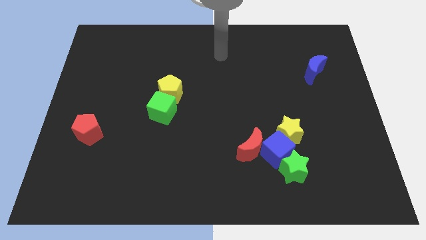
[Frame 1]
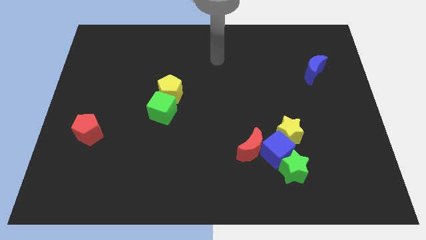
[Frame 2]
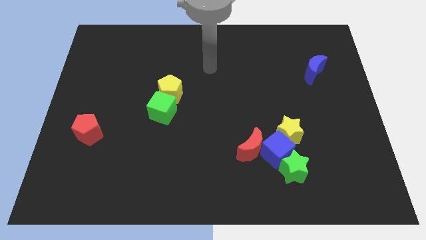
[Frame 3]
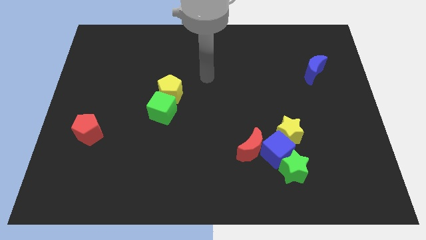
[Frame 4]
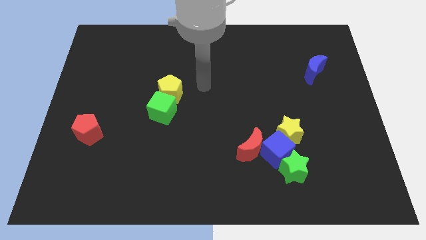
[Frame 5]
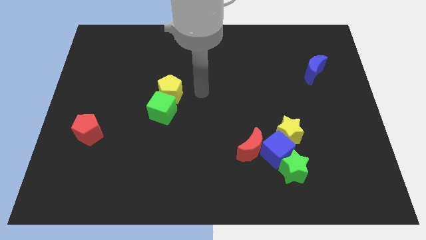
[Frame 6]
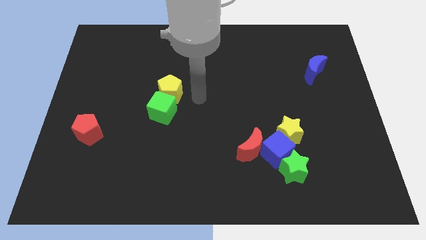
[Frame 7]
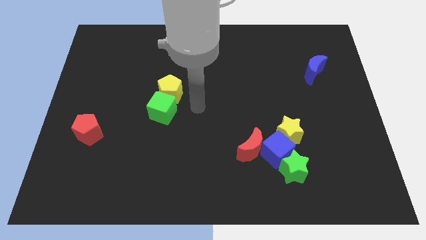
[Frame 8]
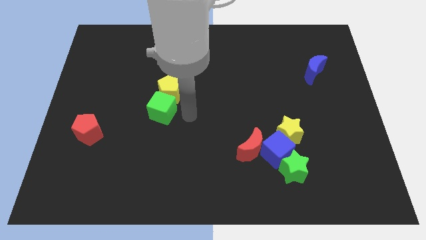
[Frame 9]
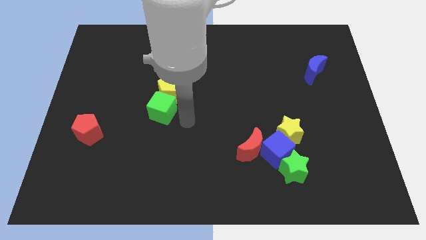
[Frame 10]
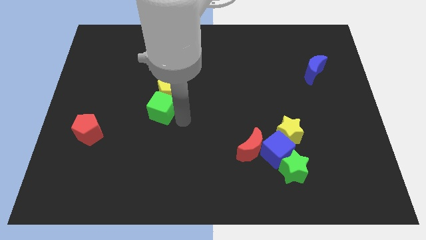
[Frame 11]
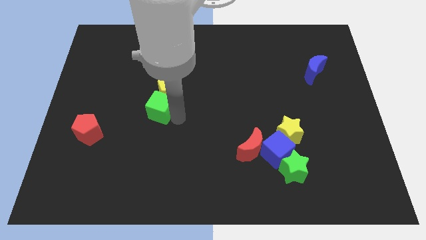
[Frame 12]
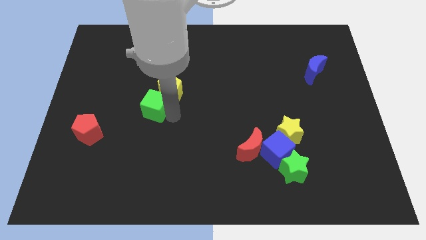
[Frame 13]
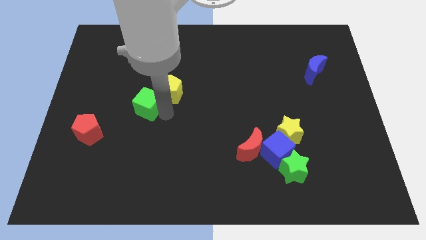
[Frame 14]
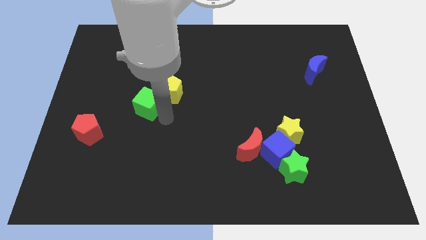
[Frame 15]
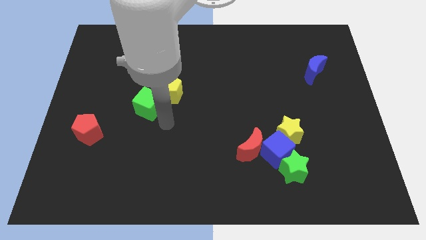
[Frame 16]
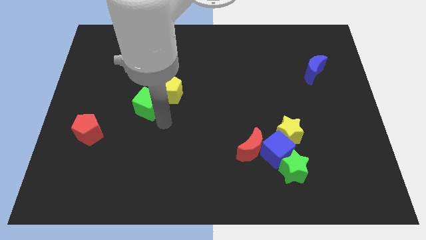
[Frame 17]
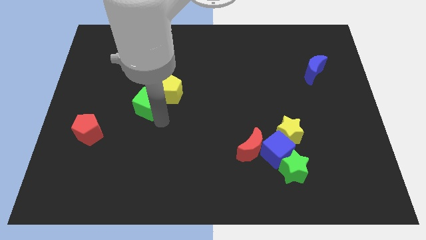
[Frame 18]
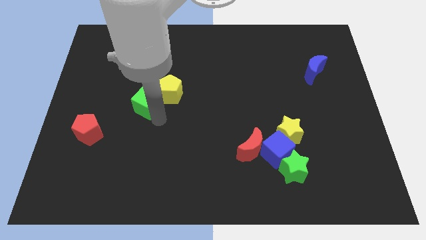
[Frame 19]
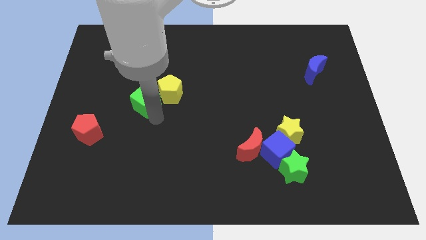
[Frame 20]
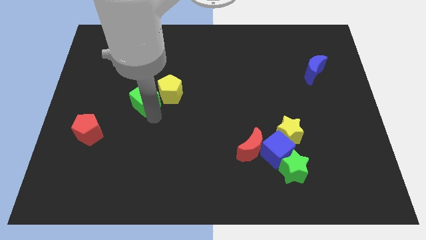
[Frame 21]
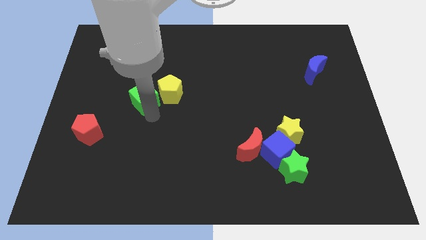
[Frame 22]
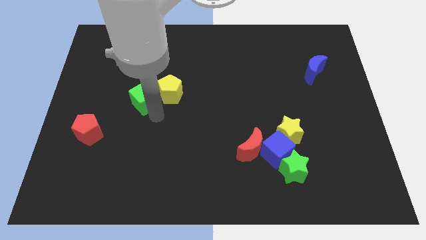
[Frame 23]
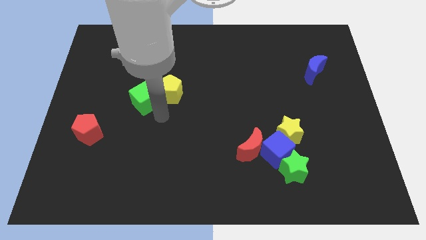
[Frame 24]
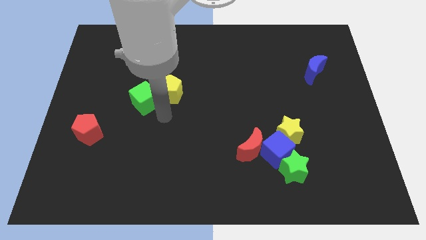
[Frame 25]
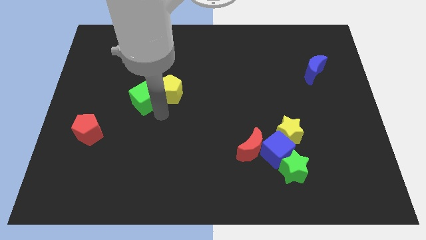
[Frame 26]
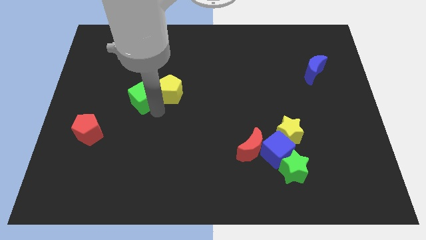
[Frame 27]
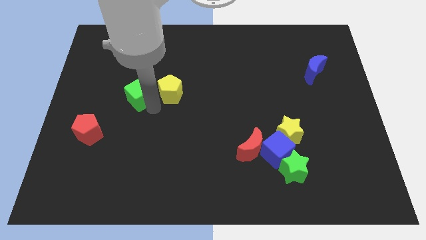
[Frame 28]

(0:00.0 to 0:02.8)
push the green cube diagonally upwards and to the left a little

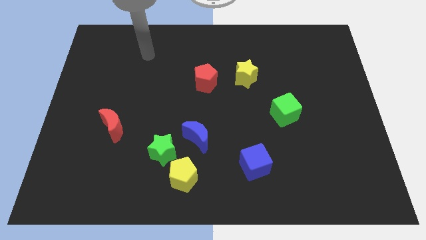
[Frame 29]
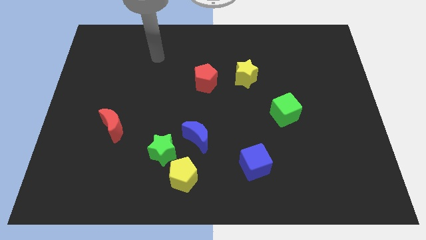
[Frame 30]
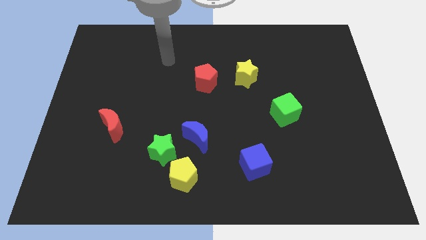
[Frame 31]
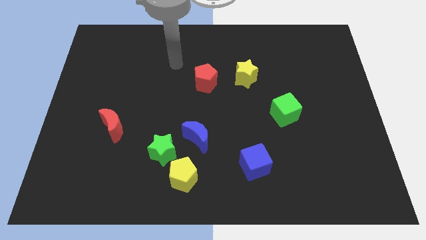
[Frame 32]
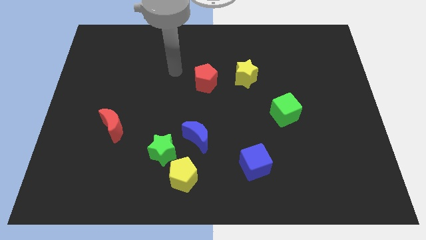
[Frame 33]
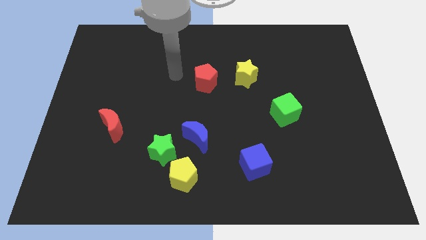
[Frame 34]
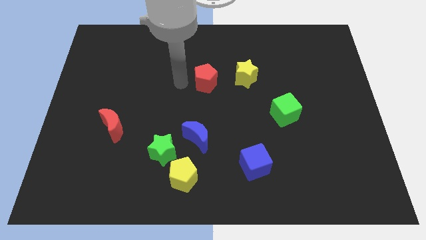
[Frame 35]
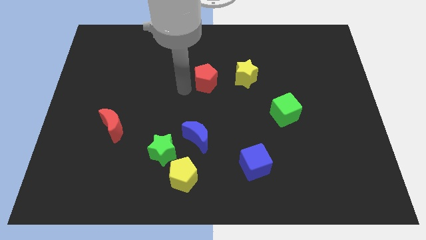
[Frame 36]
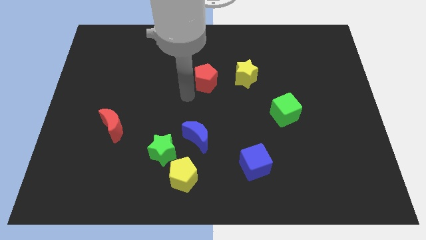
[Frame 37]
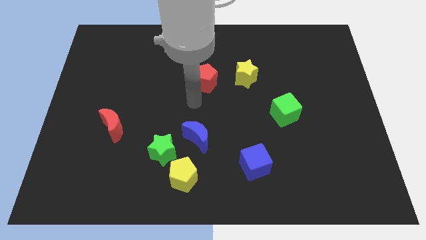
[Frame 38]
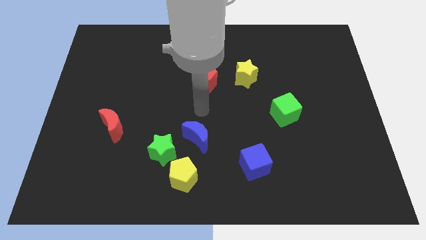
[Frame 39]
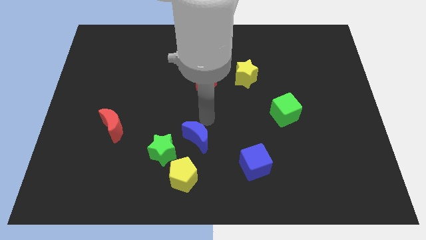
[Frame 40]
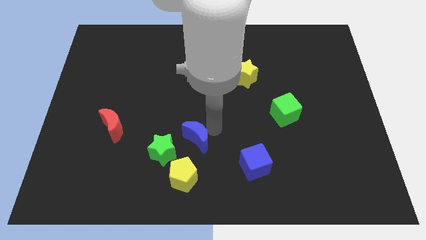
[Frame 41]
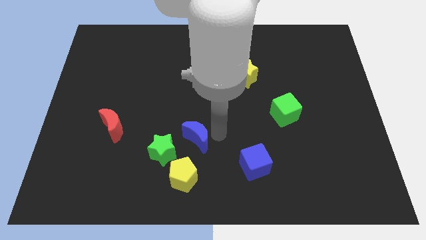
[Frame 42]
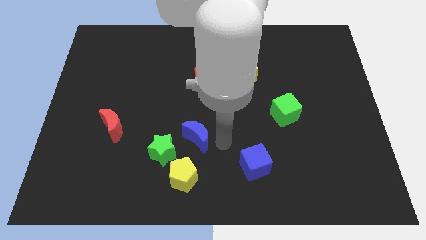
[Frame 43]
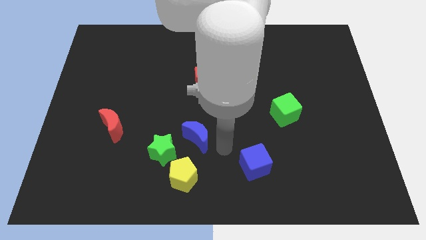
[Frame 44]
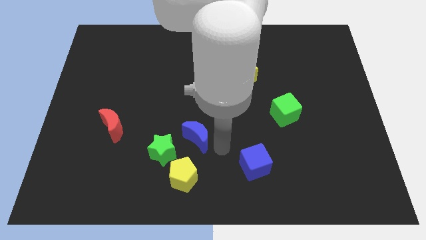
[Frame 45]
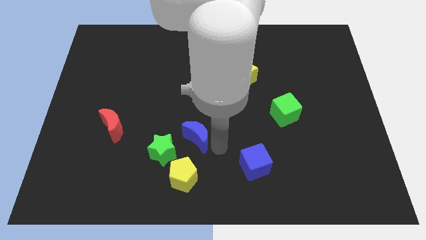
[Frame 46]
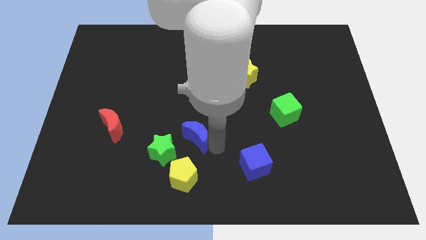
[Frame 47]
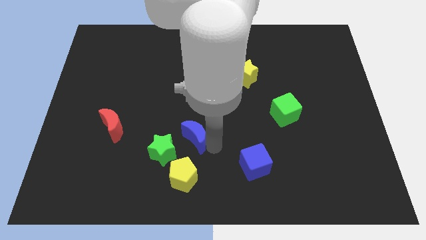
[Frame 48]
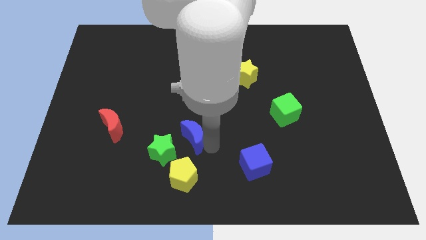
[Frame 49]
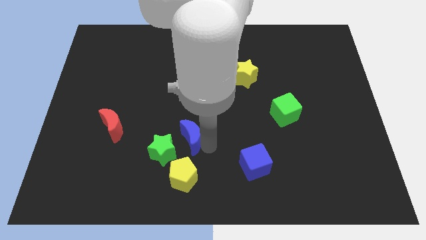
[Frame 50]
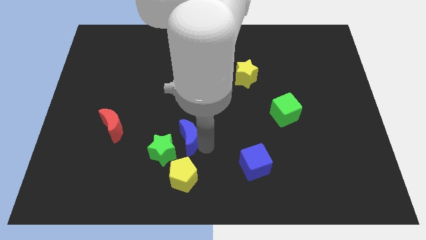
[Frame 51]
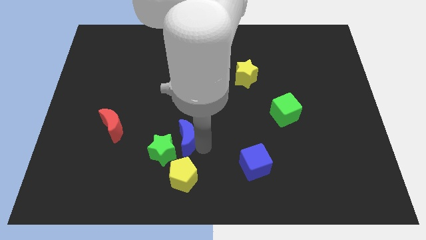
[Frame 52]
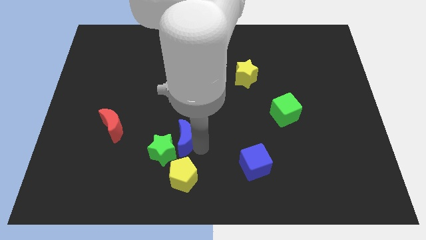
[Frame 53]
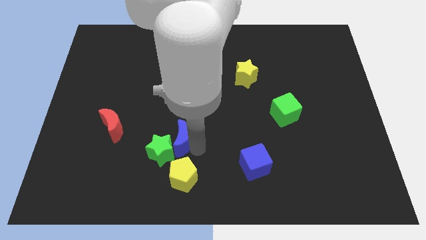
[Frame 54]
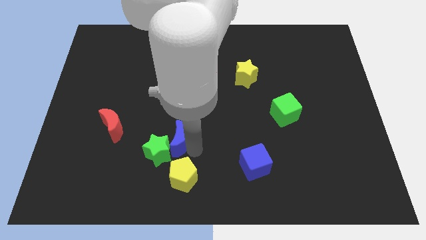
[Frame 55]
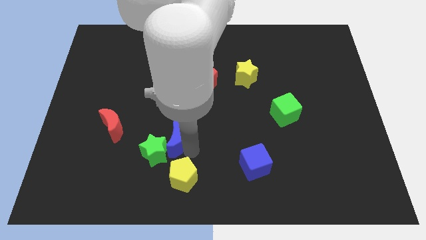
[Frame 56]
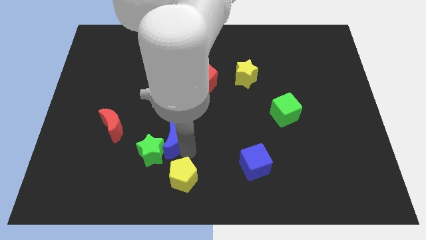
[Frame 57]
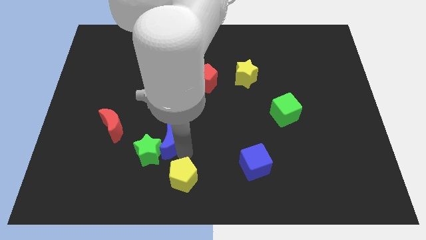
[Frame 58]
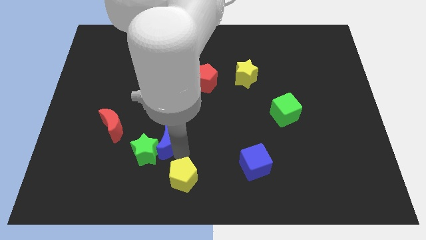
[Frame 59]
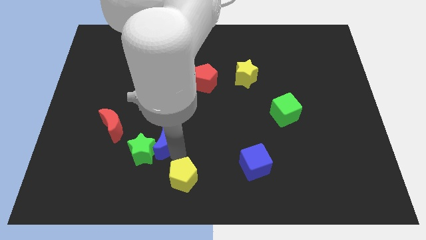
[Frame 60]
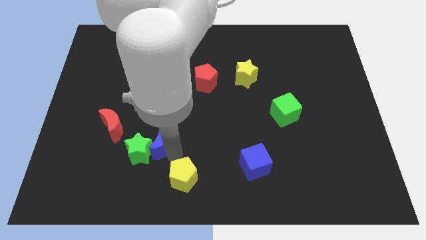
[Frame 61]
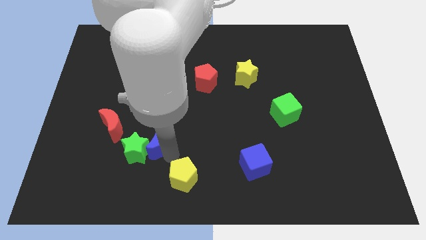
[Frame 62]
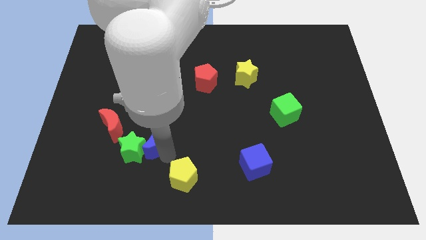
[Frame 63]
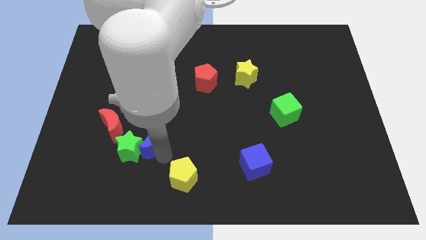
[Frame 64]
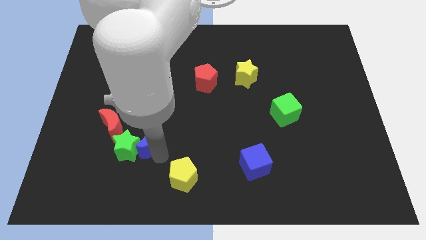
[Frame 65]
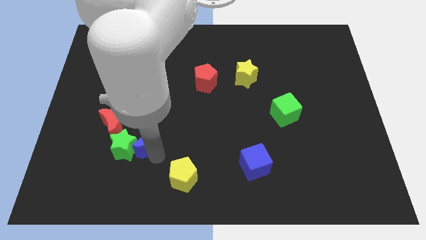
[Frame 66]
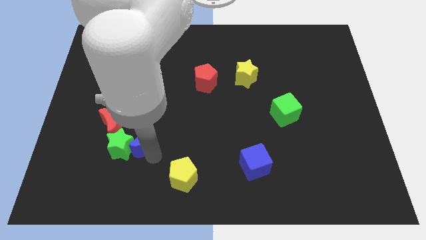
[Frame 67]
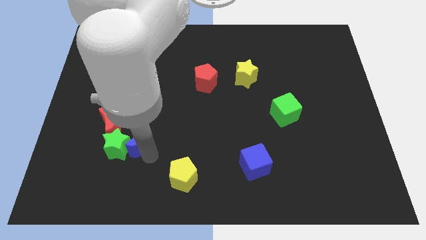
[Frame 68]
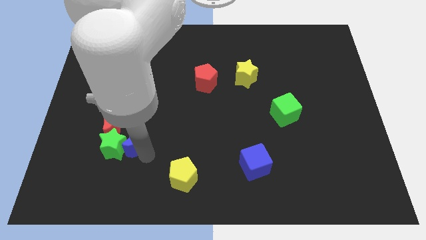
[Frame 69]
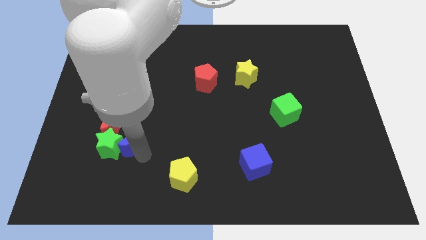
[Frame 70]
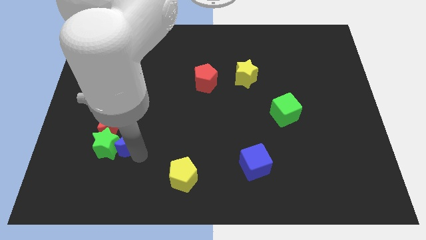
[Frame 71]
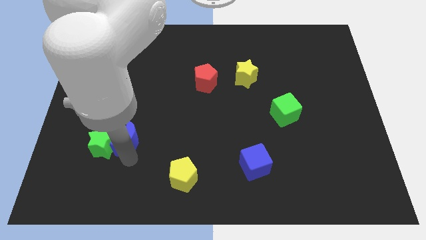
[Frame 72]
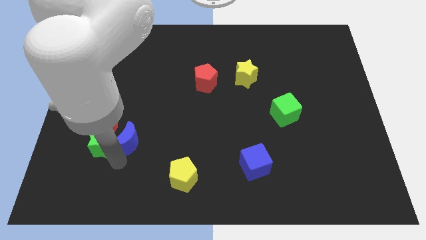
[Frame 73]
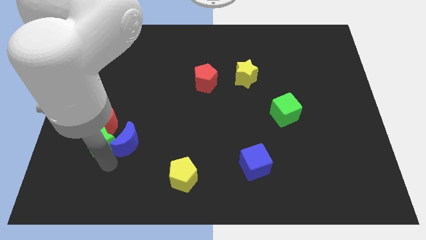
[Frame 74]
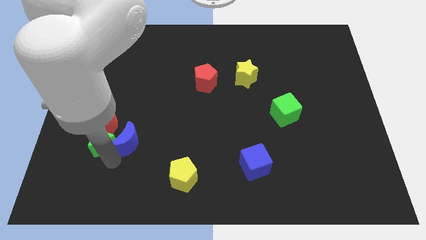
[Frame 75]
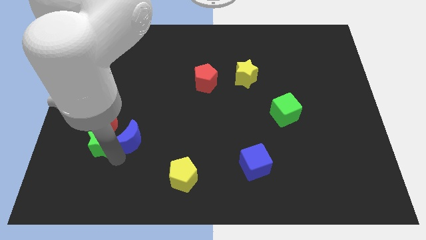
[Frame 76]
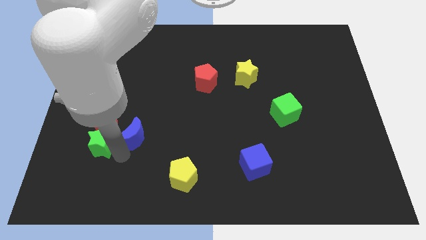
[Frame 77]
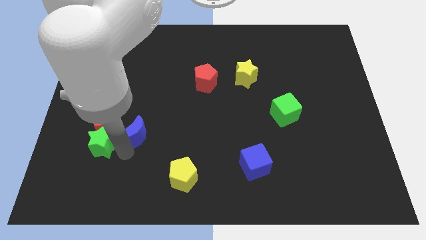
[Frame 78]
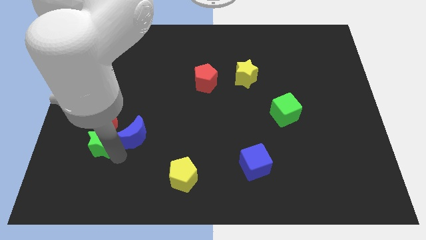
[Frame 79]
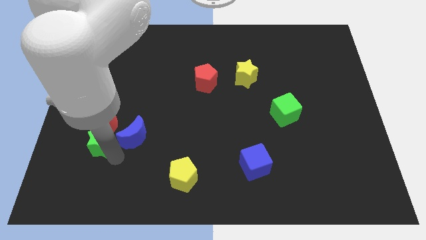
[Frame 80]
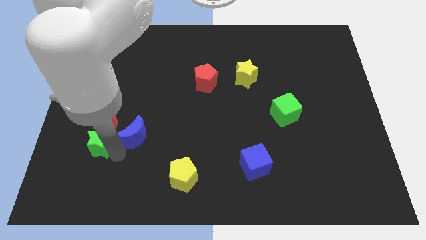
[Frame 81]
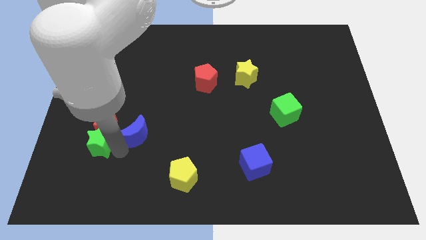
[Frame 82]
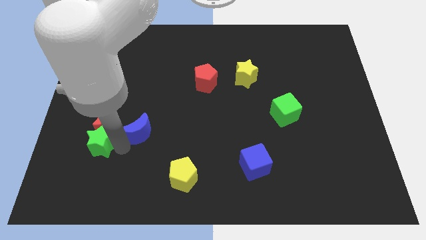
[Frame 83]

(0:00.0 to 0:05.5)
push the blue moon diagonally up and to the left somewhat
